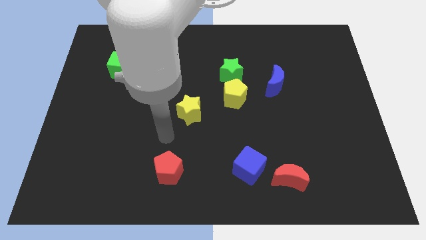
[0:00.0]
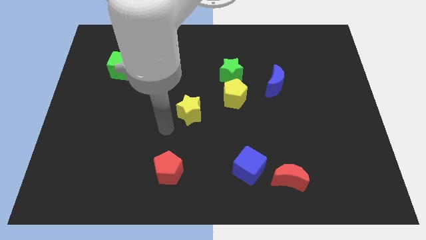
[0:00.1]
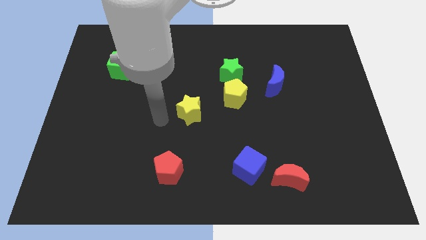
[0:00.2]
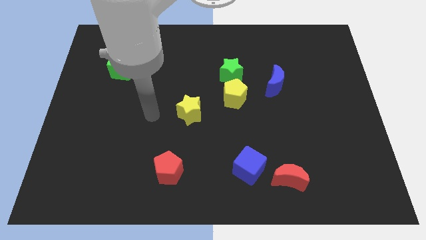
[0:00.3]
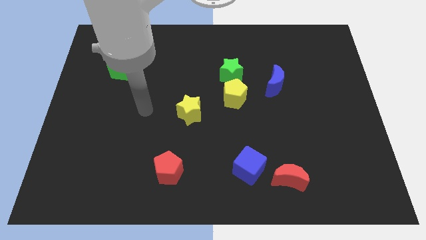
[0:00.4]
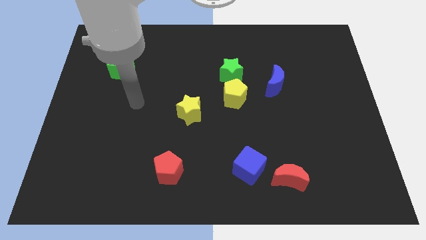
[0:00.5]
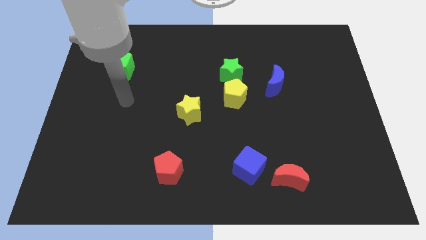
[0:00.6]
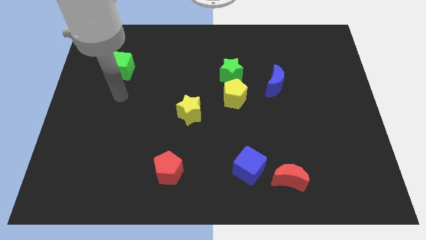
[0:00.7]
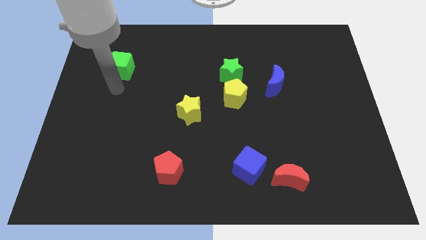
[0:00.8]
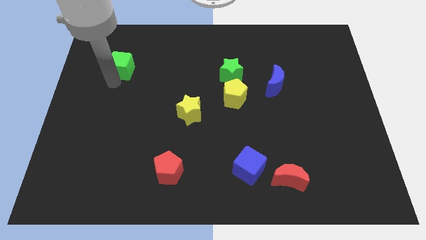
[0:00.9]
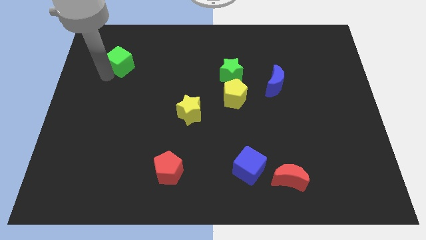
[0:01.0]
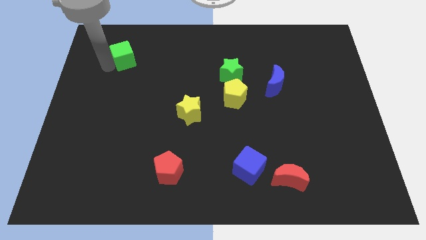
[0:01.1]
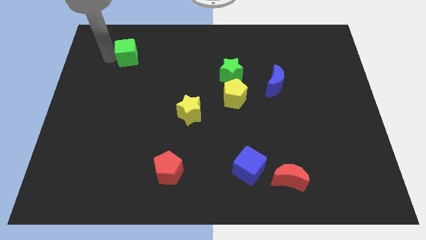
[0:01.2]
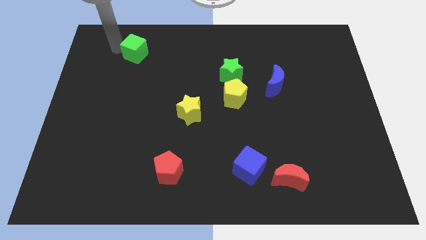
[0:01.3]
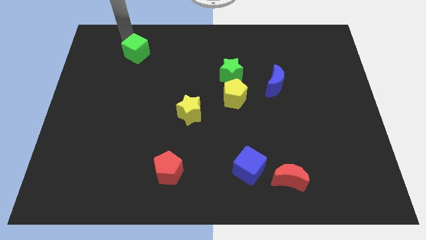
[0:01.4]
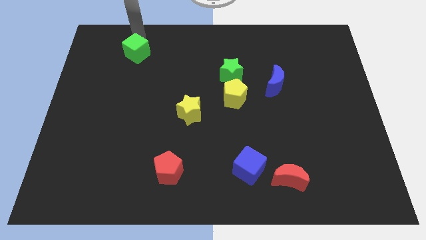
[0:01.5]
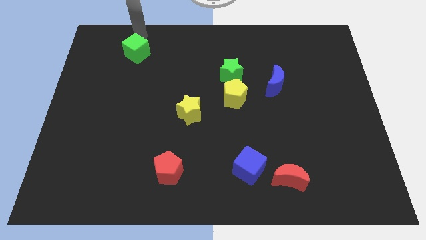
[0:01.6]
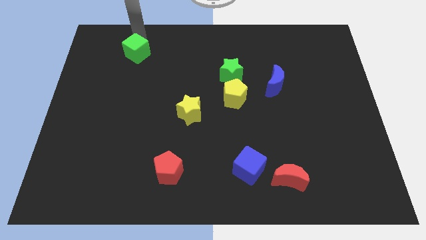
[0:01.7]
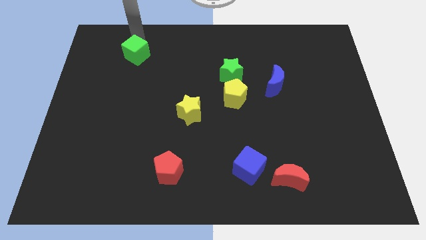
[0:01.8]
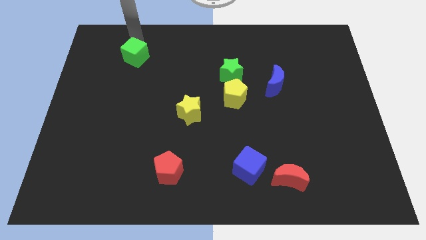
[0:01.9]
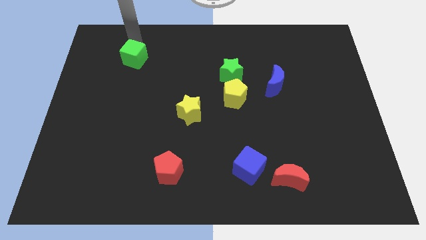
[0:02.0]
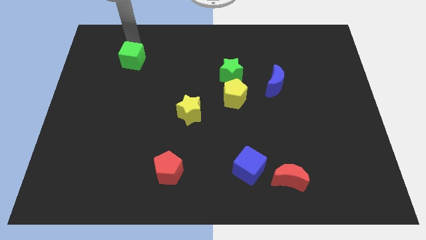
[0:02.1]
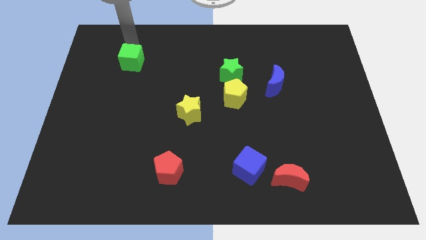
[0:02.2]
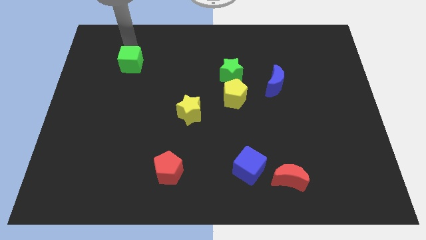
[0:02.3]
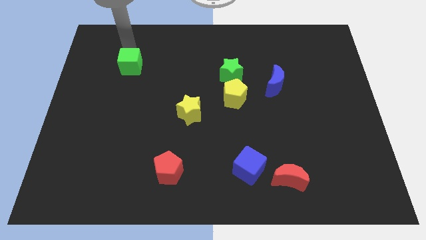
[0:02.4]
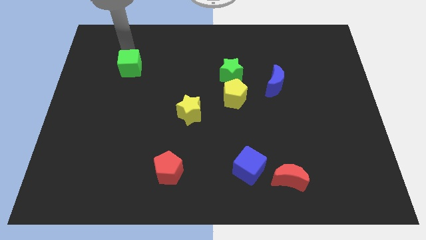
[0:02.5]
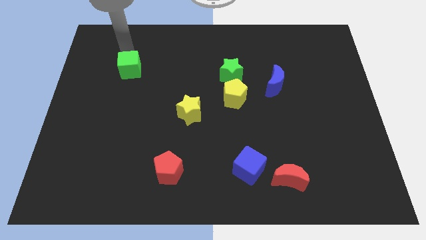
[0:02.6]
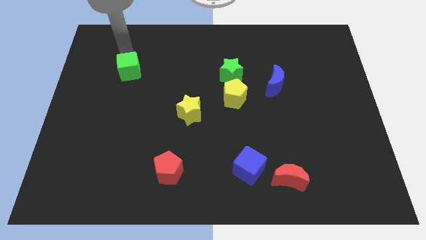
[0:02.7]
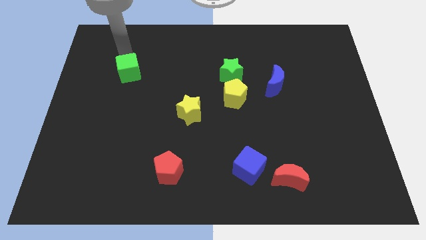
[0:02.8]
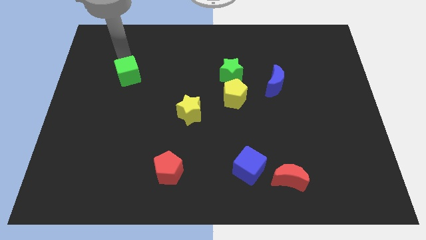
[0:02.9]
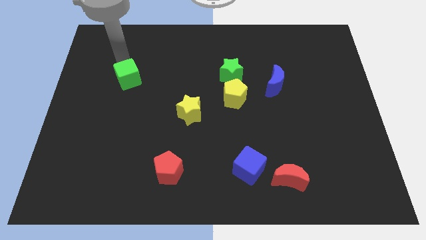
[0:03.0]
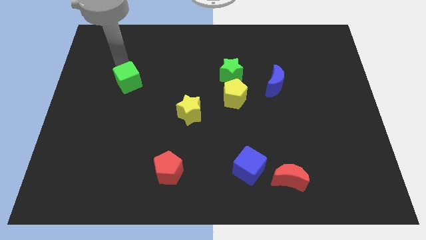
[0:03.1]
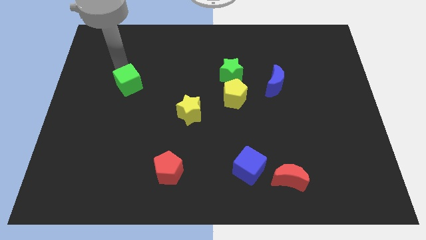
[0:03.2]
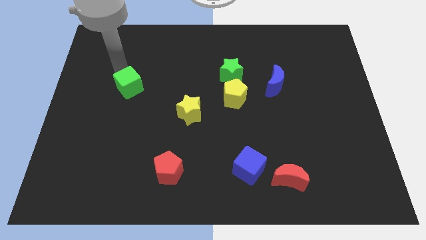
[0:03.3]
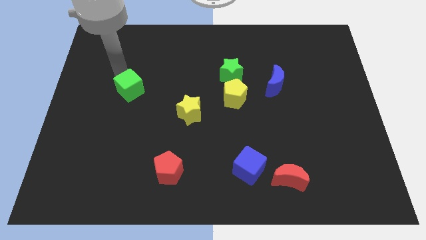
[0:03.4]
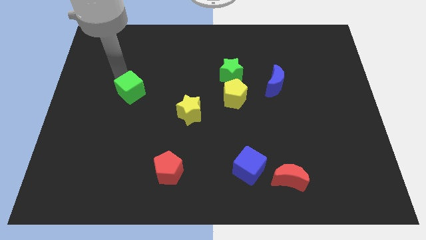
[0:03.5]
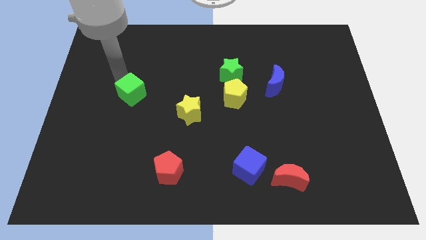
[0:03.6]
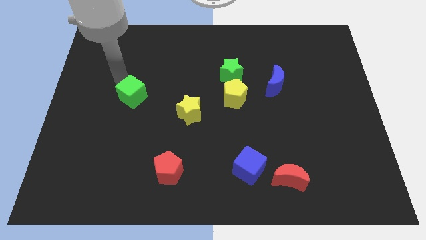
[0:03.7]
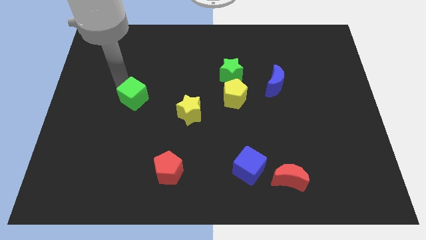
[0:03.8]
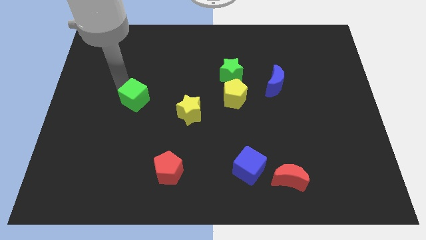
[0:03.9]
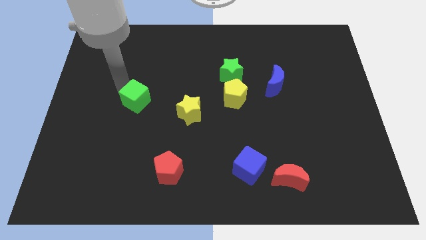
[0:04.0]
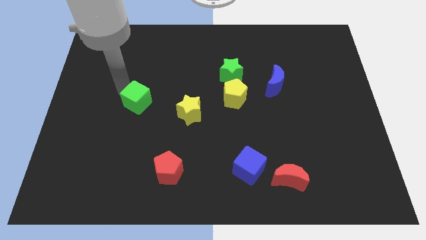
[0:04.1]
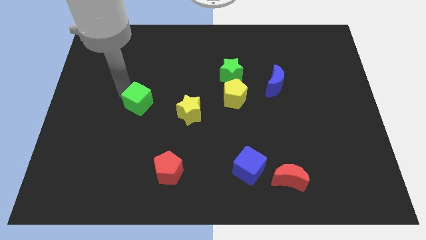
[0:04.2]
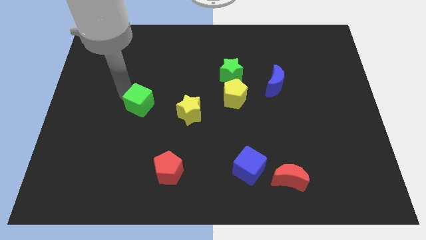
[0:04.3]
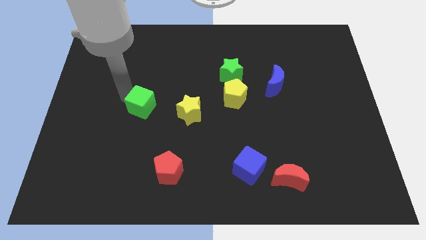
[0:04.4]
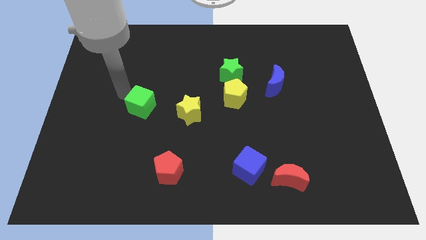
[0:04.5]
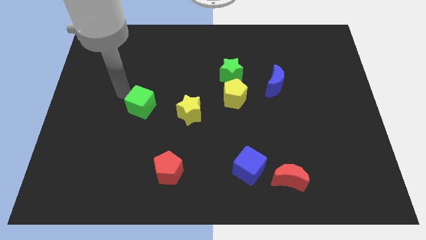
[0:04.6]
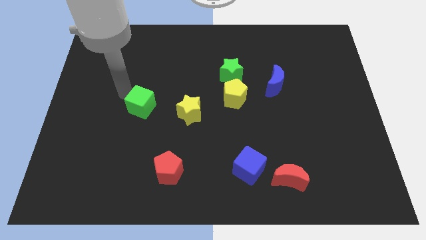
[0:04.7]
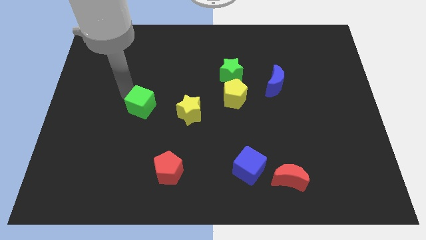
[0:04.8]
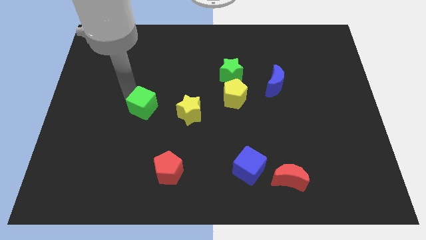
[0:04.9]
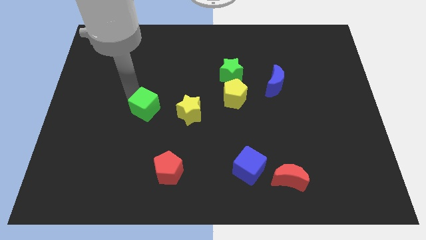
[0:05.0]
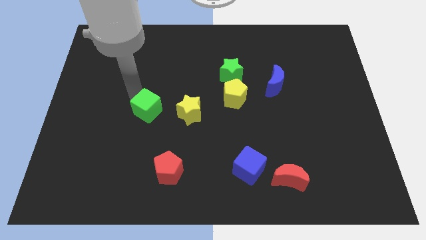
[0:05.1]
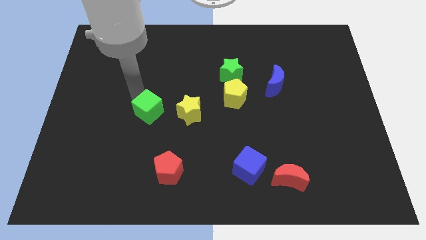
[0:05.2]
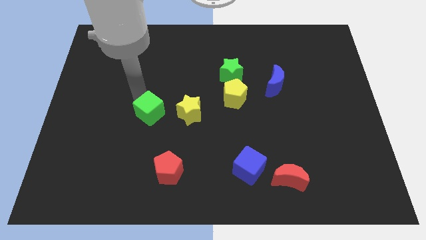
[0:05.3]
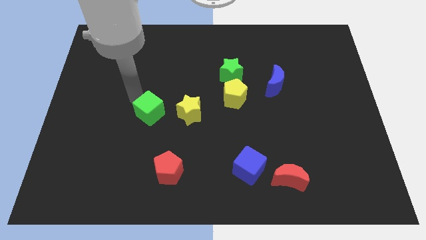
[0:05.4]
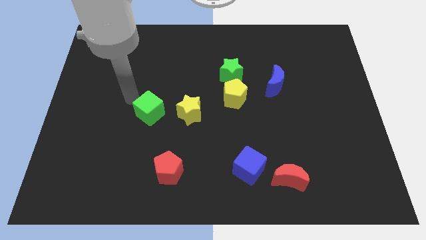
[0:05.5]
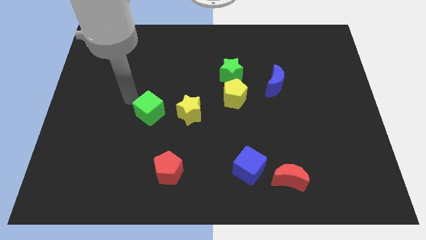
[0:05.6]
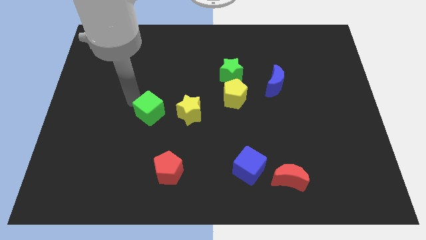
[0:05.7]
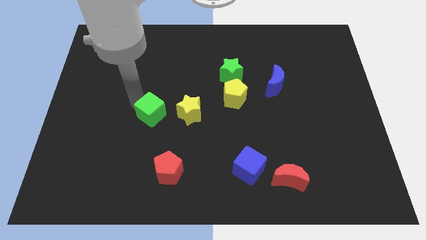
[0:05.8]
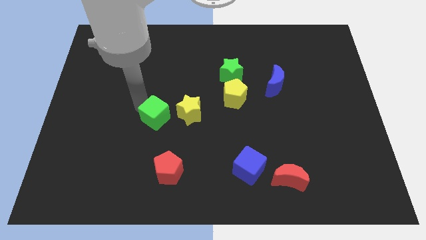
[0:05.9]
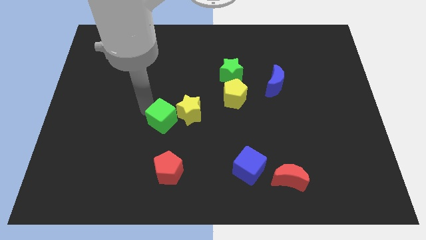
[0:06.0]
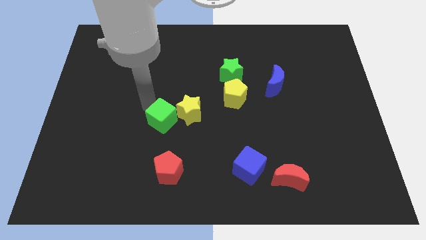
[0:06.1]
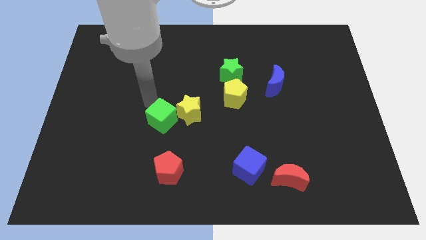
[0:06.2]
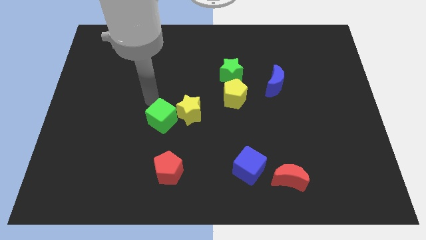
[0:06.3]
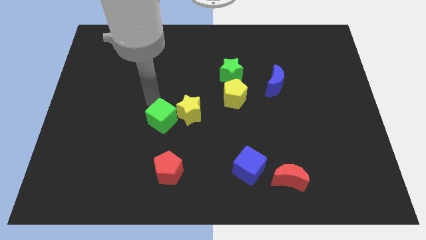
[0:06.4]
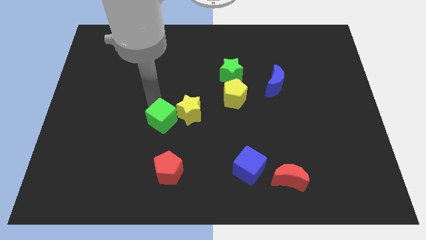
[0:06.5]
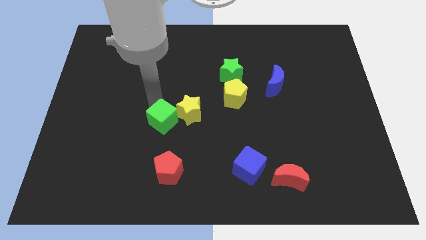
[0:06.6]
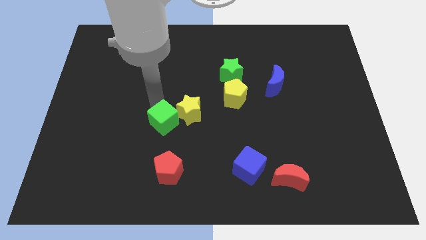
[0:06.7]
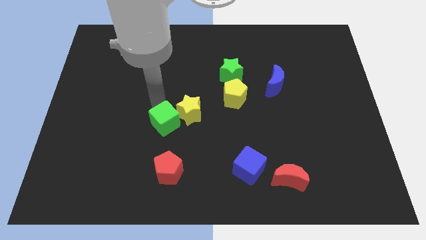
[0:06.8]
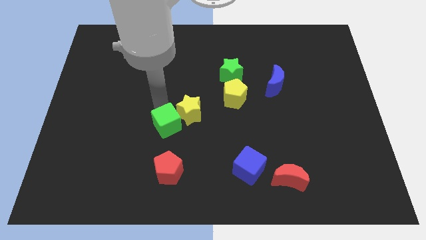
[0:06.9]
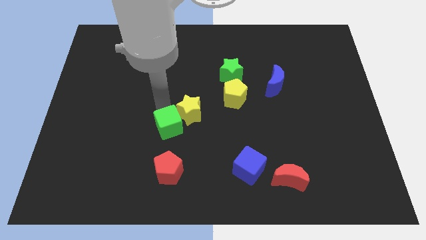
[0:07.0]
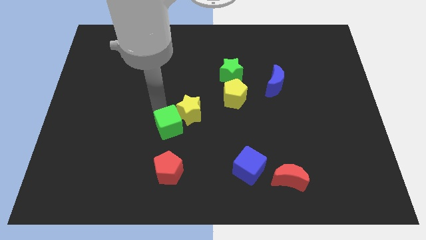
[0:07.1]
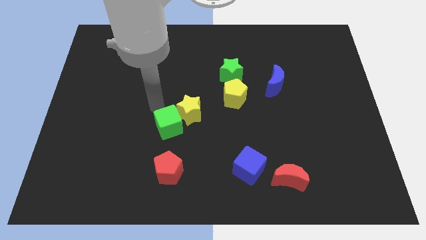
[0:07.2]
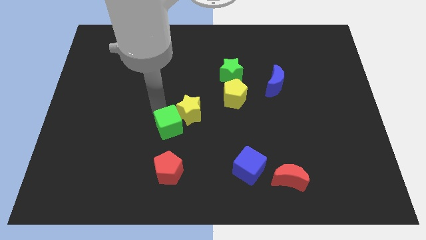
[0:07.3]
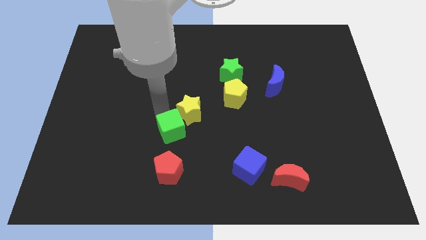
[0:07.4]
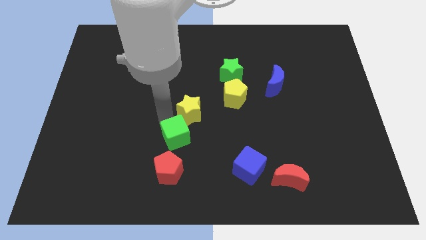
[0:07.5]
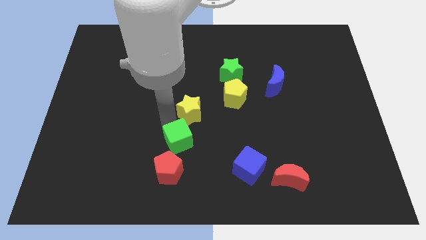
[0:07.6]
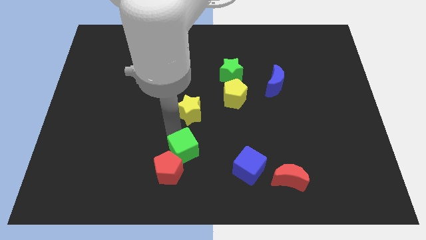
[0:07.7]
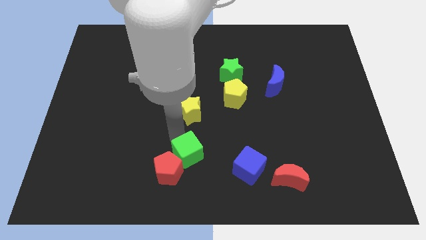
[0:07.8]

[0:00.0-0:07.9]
put the green cube to the left side of the blue cube
